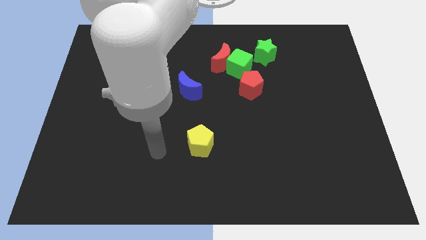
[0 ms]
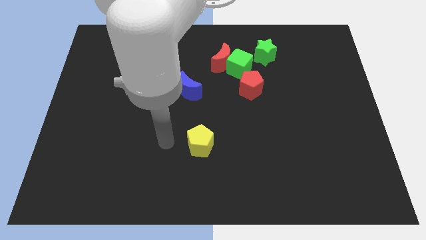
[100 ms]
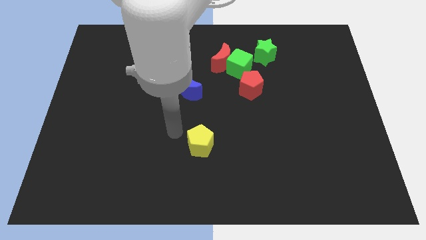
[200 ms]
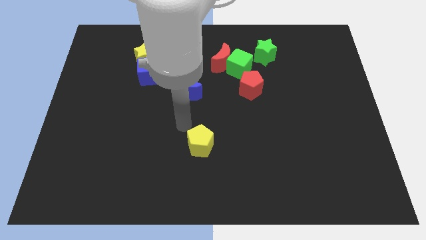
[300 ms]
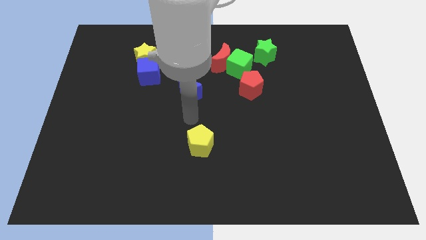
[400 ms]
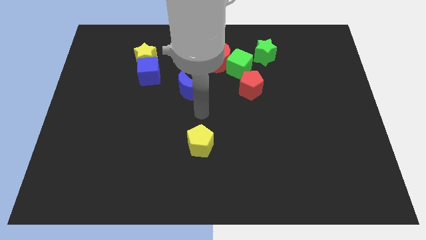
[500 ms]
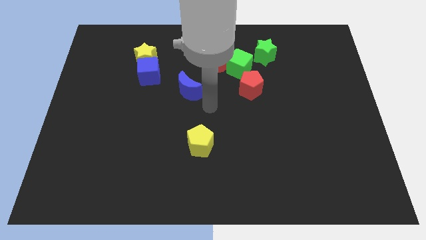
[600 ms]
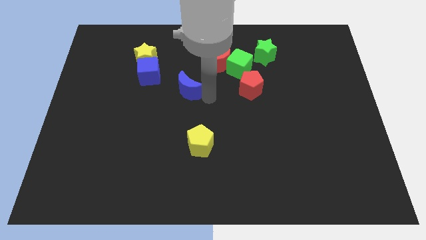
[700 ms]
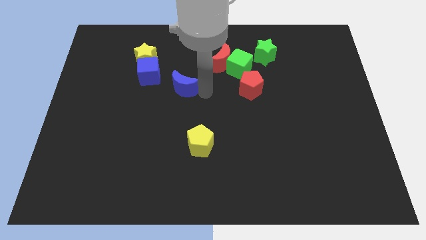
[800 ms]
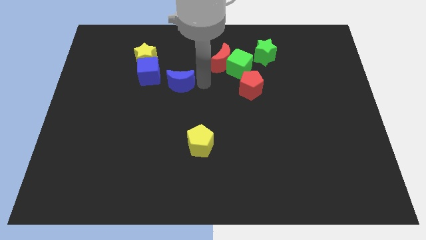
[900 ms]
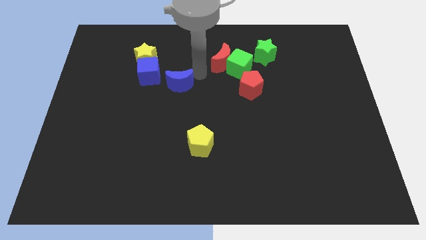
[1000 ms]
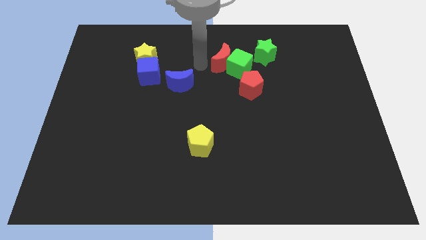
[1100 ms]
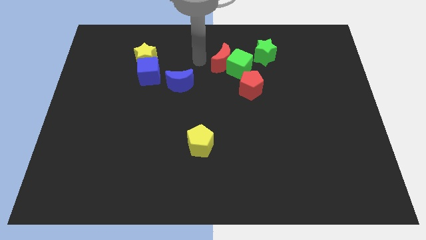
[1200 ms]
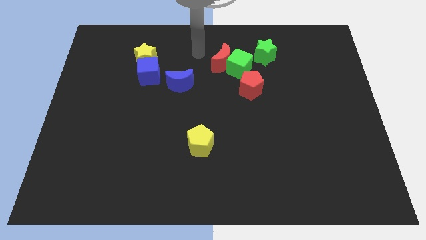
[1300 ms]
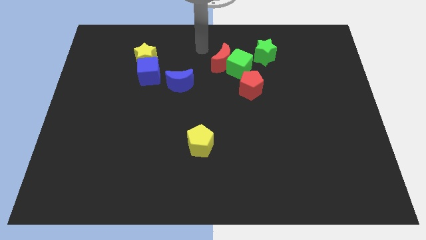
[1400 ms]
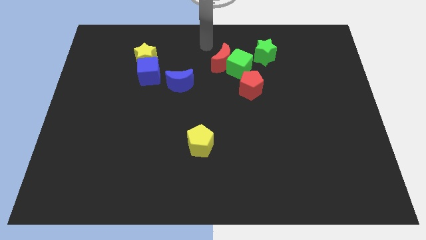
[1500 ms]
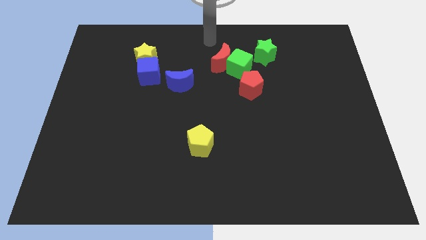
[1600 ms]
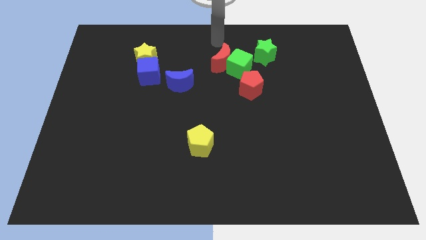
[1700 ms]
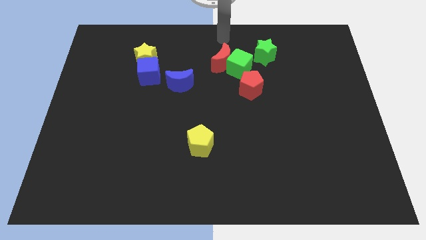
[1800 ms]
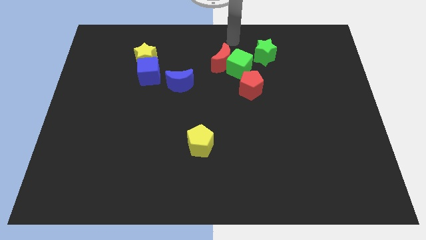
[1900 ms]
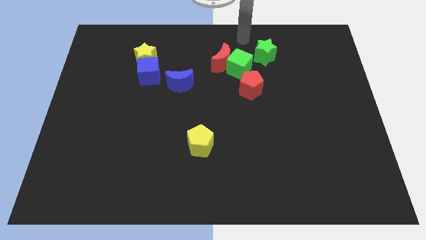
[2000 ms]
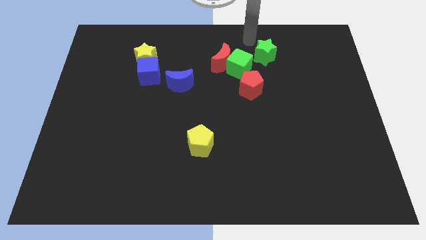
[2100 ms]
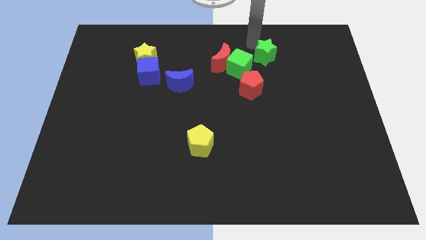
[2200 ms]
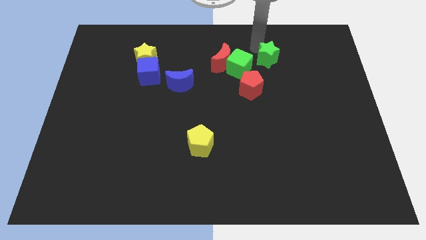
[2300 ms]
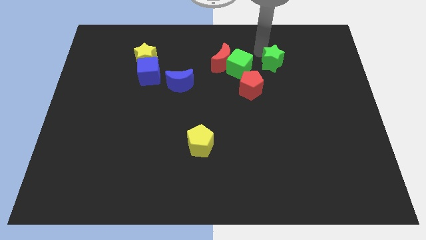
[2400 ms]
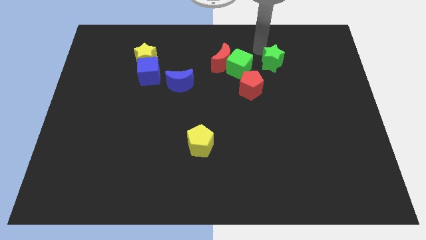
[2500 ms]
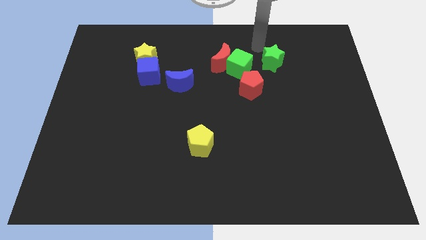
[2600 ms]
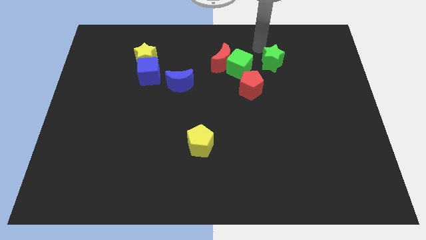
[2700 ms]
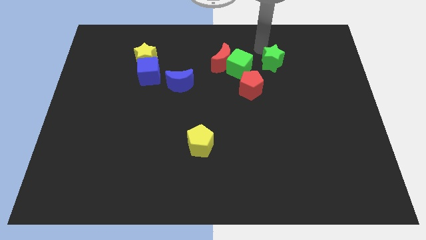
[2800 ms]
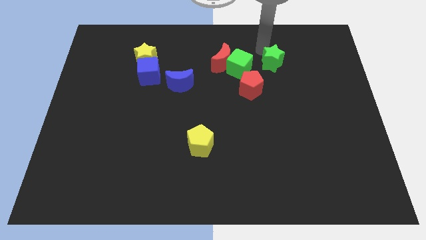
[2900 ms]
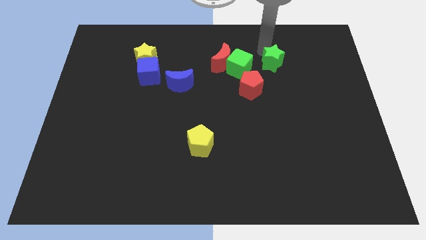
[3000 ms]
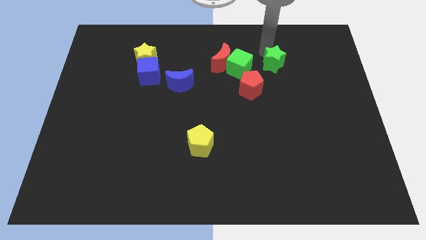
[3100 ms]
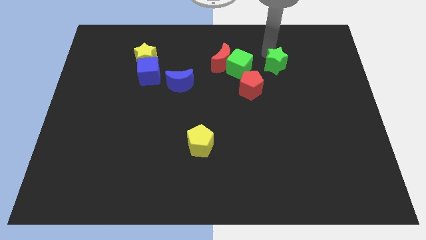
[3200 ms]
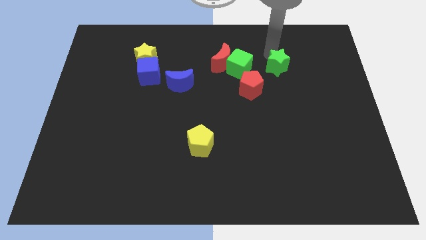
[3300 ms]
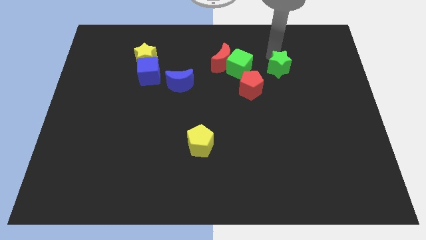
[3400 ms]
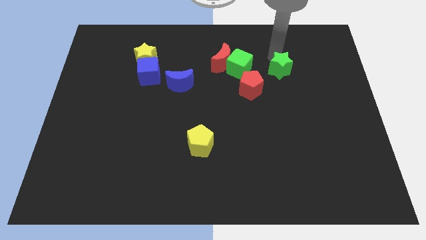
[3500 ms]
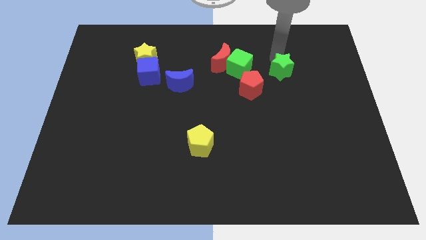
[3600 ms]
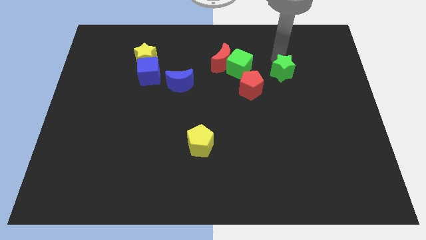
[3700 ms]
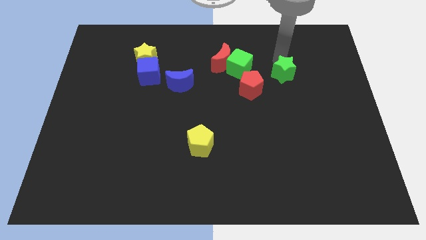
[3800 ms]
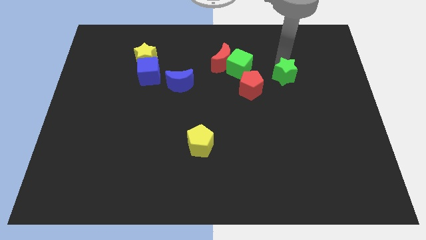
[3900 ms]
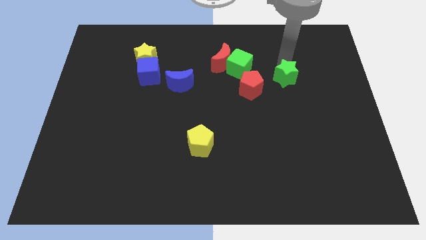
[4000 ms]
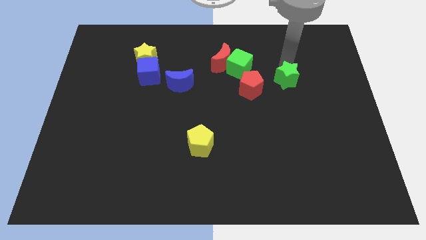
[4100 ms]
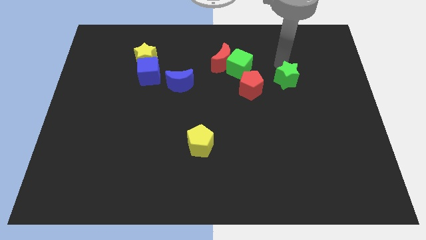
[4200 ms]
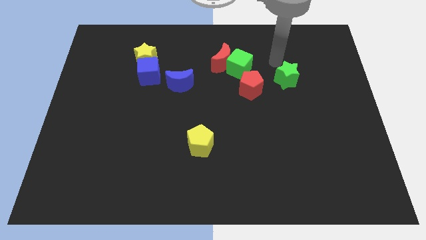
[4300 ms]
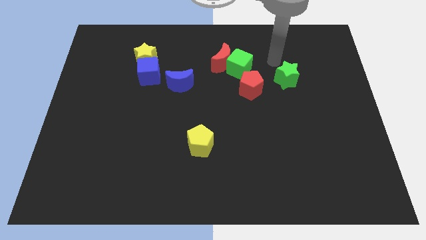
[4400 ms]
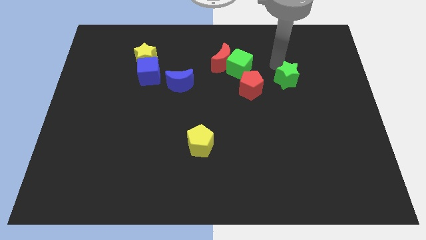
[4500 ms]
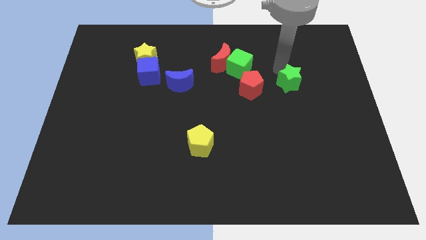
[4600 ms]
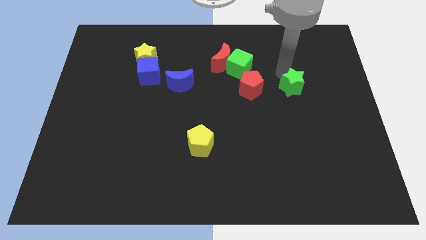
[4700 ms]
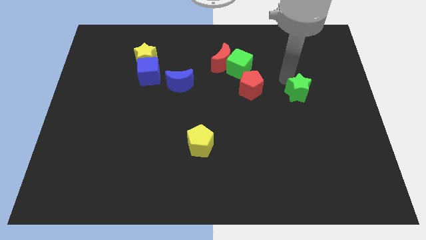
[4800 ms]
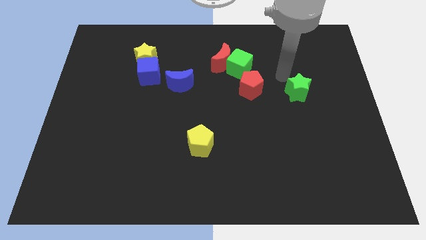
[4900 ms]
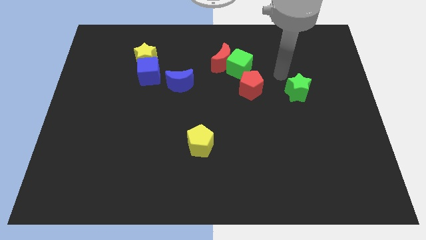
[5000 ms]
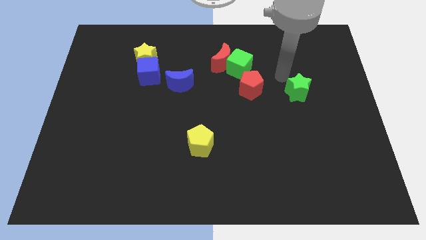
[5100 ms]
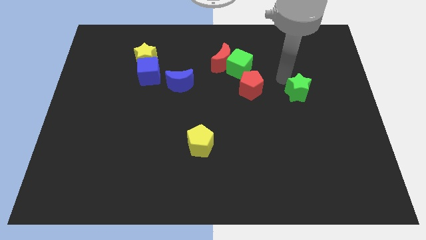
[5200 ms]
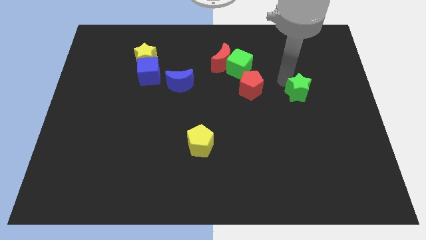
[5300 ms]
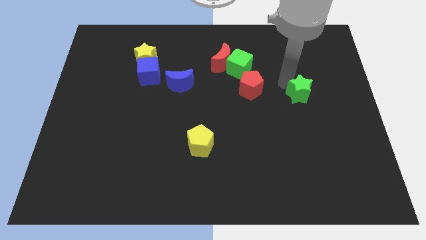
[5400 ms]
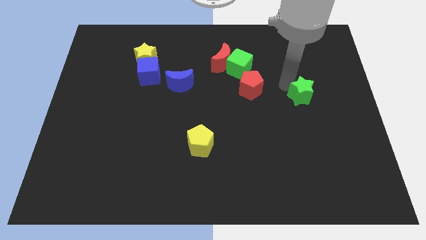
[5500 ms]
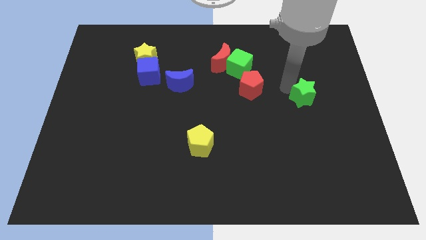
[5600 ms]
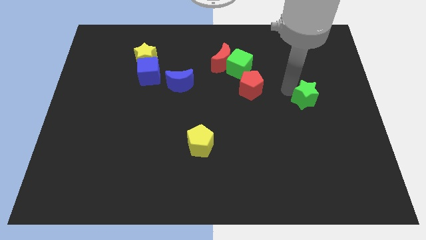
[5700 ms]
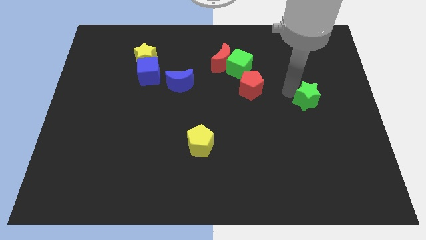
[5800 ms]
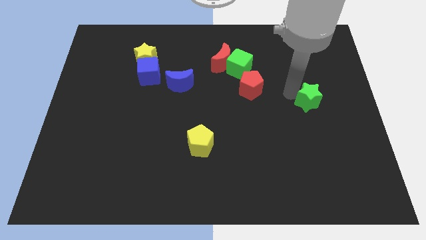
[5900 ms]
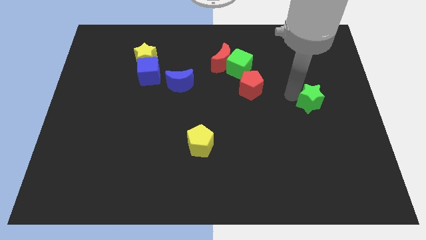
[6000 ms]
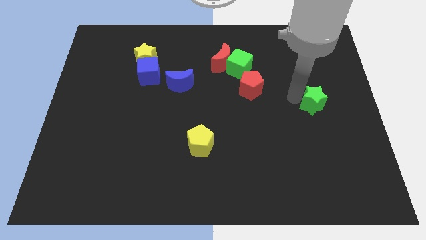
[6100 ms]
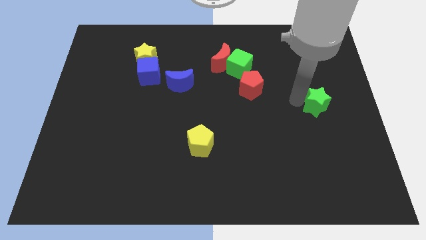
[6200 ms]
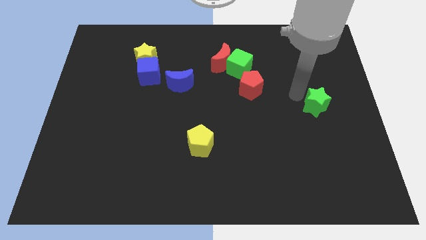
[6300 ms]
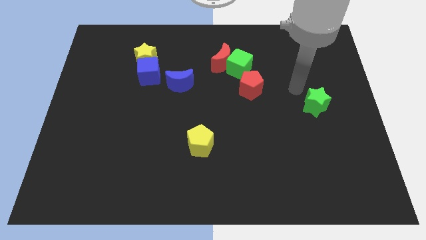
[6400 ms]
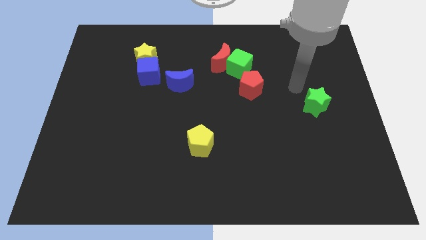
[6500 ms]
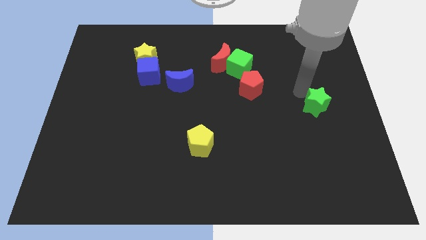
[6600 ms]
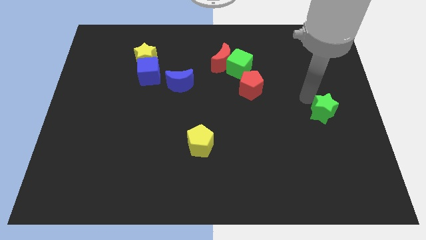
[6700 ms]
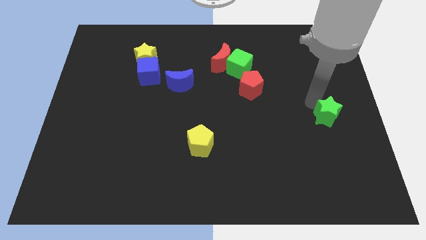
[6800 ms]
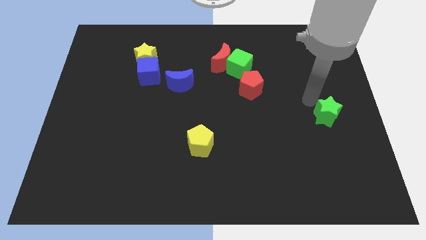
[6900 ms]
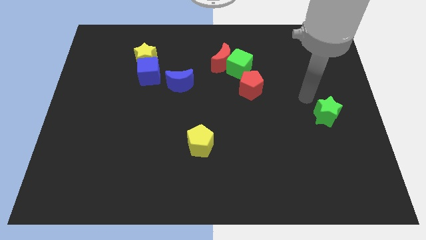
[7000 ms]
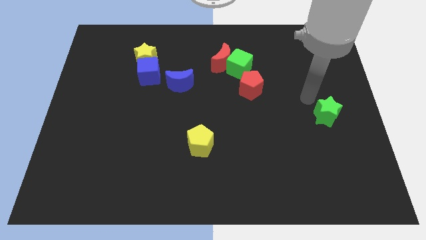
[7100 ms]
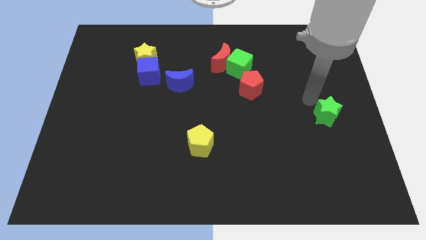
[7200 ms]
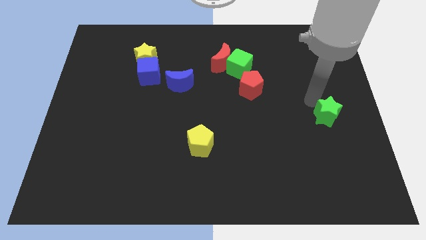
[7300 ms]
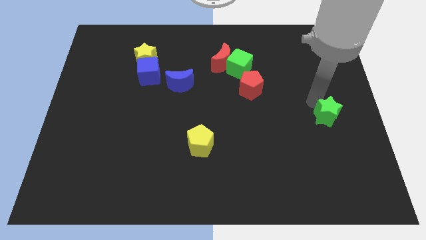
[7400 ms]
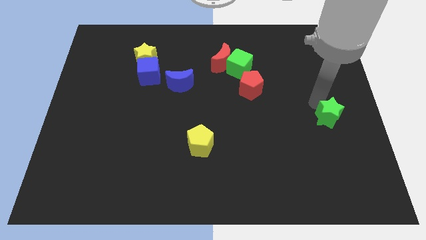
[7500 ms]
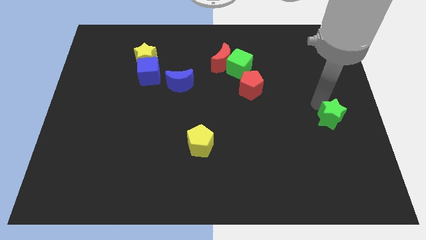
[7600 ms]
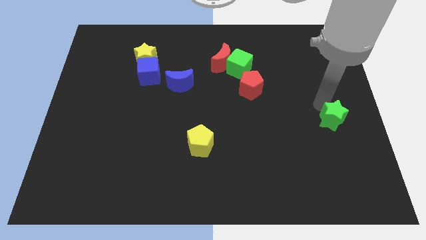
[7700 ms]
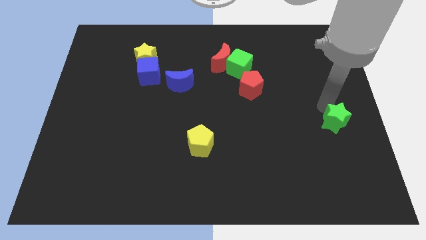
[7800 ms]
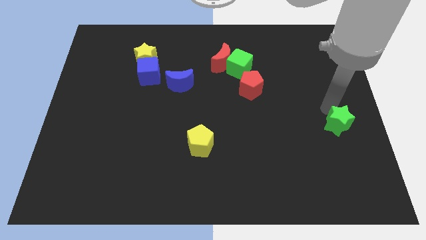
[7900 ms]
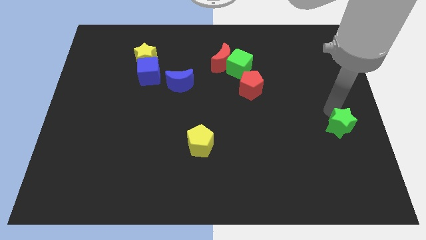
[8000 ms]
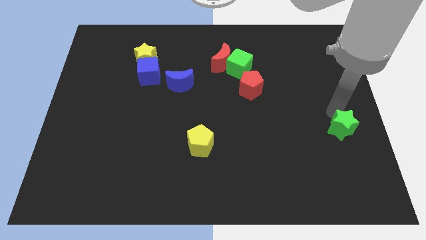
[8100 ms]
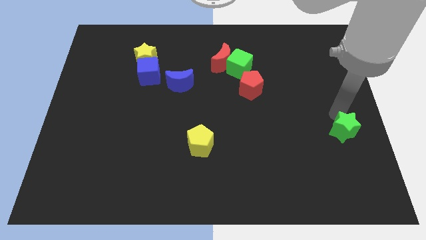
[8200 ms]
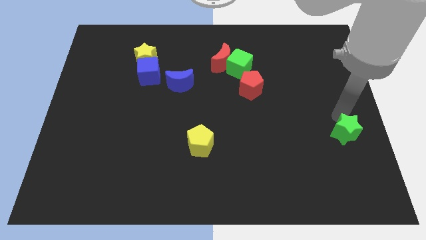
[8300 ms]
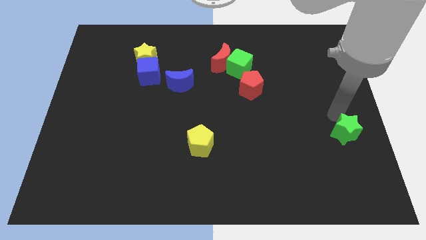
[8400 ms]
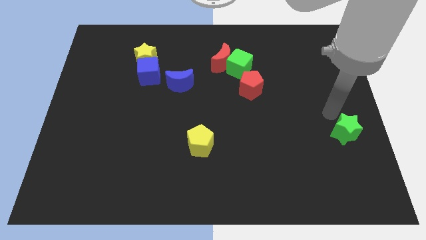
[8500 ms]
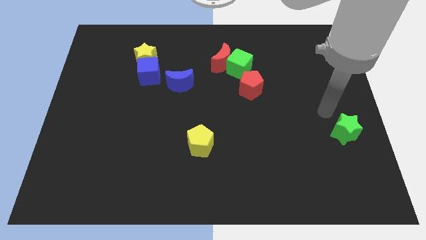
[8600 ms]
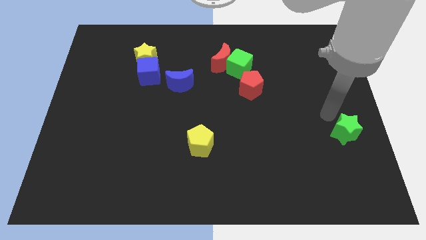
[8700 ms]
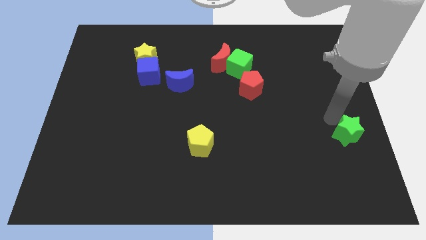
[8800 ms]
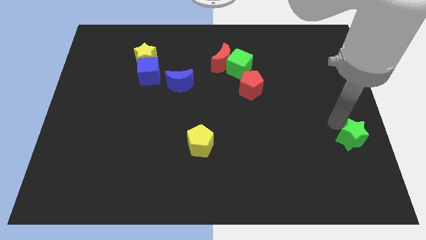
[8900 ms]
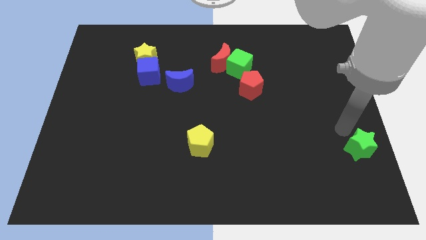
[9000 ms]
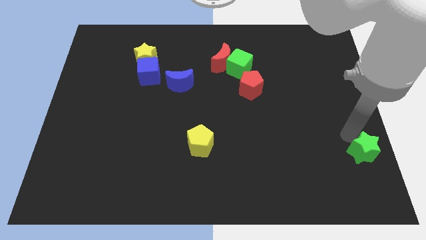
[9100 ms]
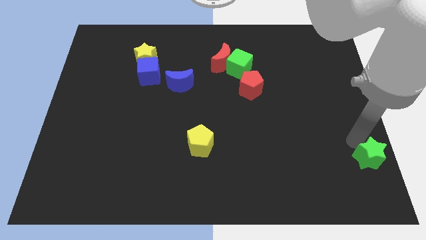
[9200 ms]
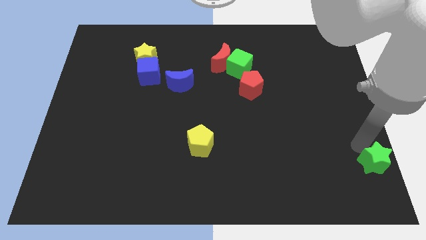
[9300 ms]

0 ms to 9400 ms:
move the green star to the bottom right corner
